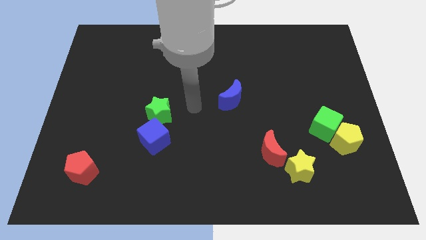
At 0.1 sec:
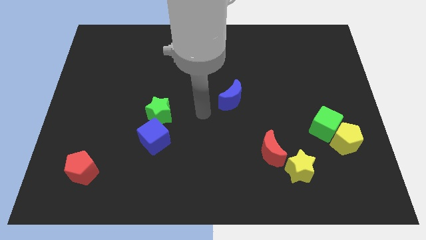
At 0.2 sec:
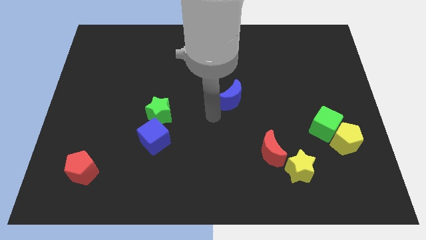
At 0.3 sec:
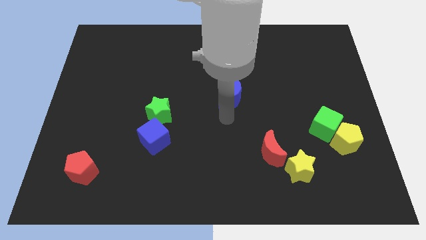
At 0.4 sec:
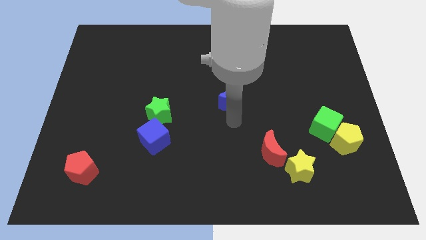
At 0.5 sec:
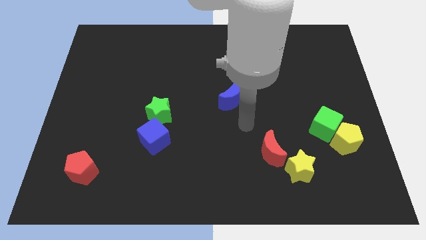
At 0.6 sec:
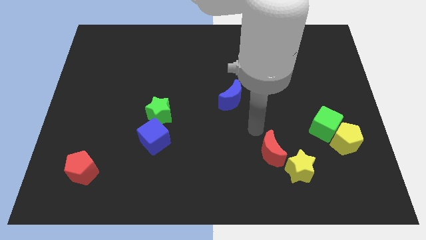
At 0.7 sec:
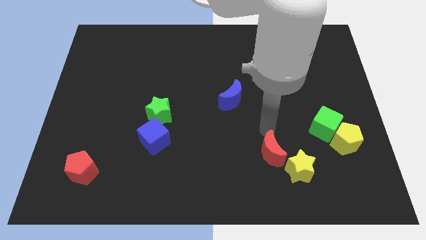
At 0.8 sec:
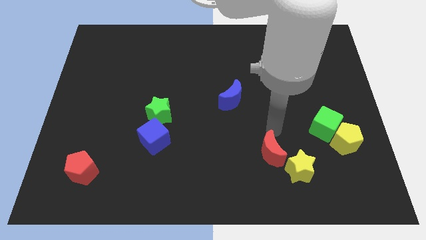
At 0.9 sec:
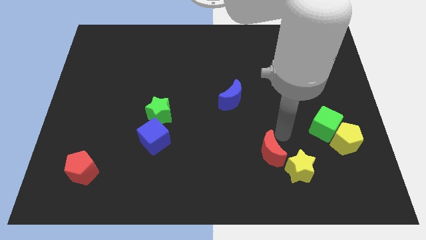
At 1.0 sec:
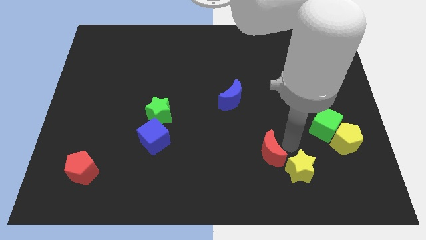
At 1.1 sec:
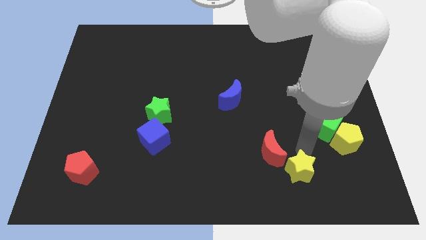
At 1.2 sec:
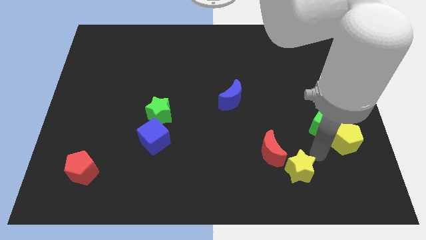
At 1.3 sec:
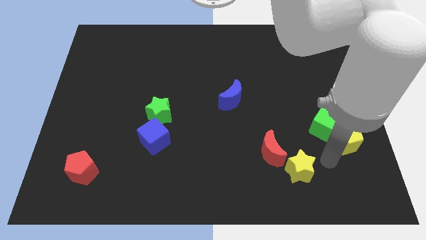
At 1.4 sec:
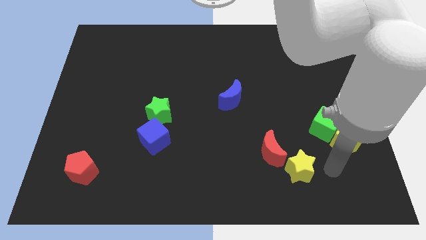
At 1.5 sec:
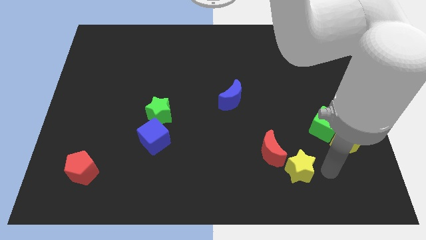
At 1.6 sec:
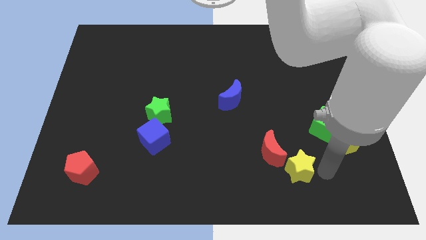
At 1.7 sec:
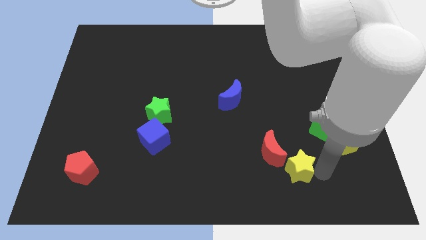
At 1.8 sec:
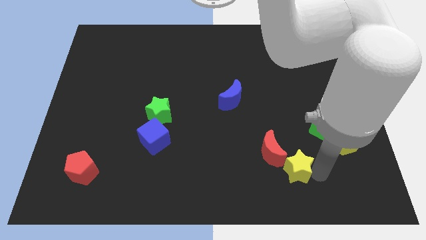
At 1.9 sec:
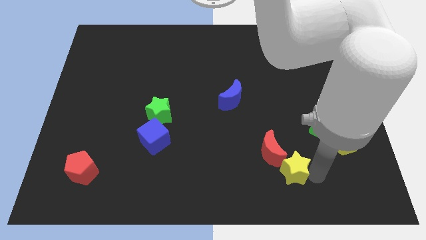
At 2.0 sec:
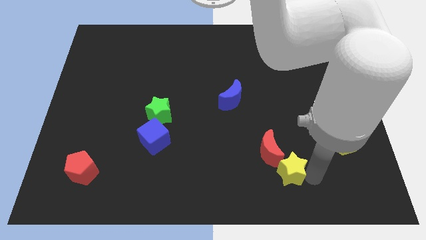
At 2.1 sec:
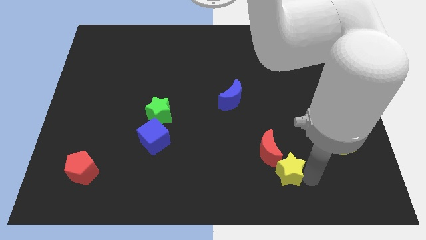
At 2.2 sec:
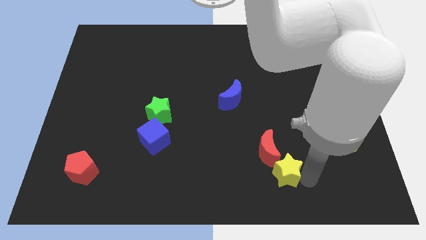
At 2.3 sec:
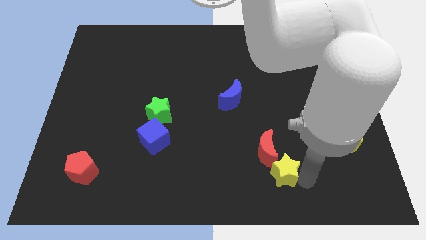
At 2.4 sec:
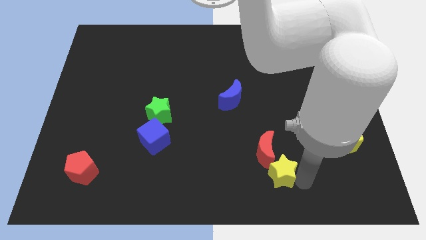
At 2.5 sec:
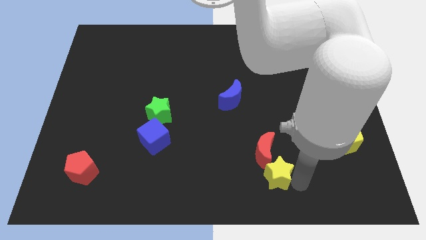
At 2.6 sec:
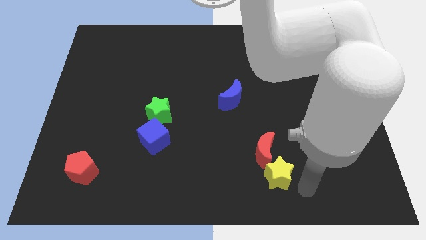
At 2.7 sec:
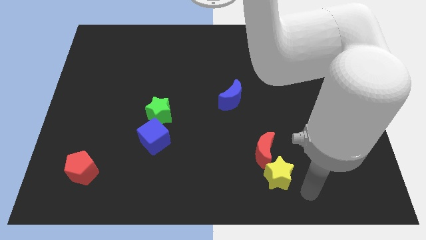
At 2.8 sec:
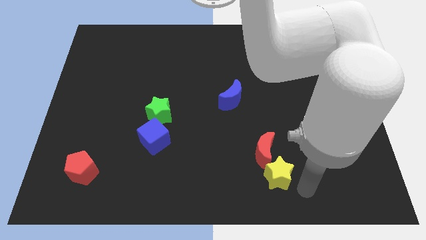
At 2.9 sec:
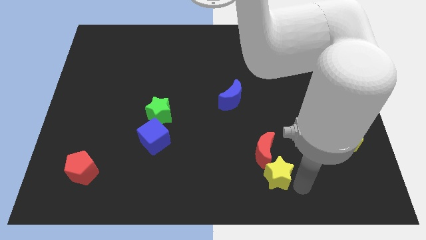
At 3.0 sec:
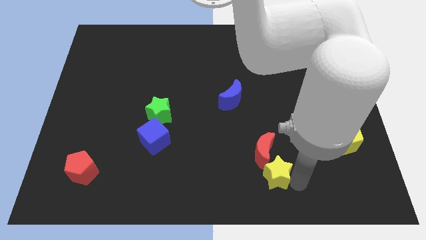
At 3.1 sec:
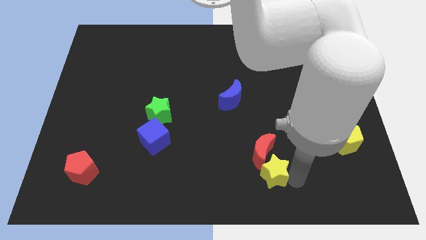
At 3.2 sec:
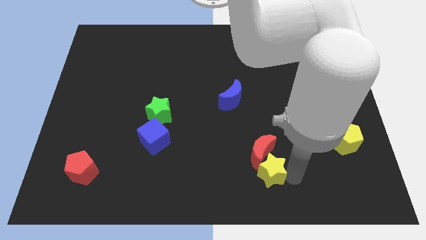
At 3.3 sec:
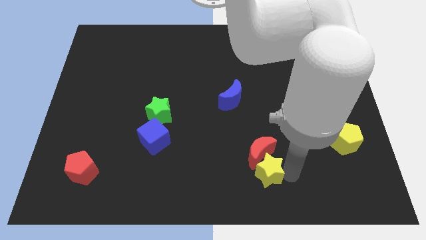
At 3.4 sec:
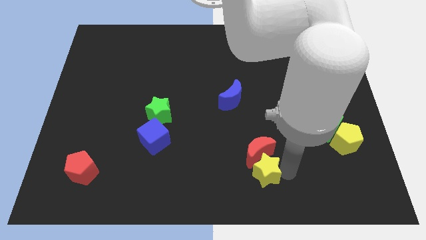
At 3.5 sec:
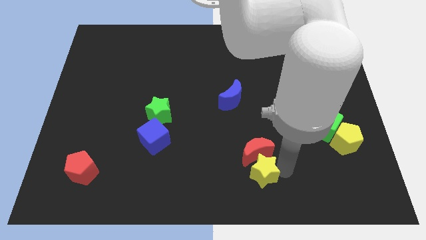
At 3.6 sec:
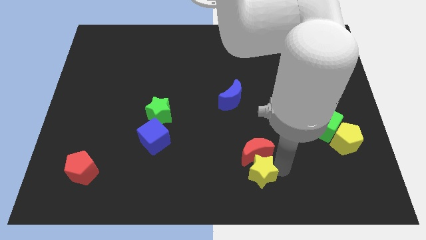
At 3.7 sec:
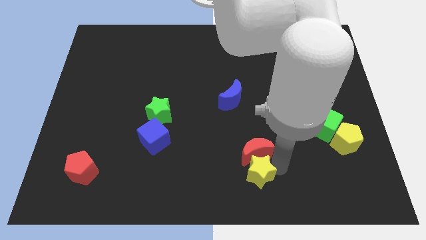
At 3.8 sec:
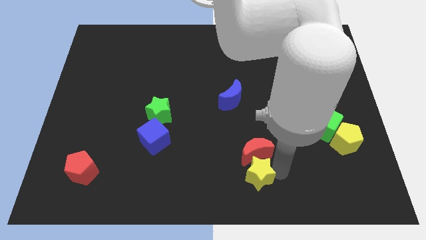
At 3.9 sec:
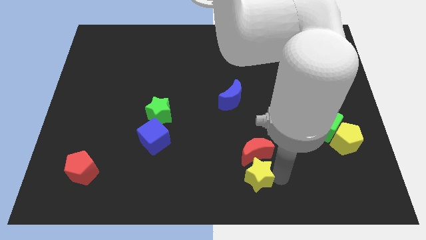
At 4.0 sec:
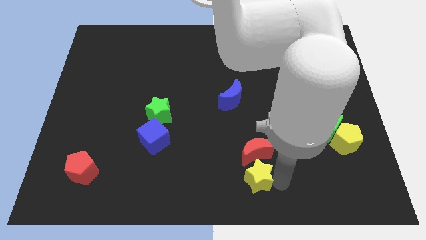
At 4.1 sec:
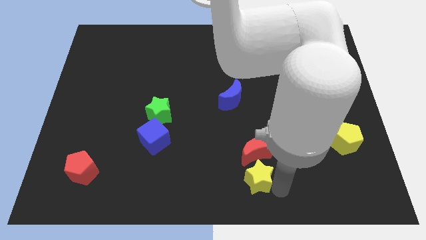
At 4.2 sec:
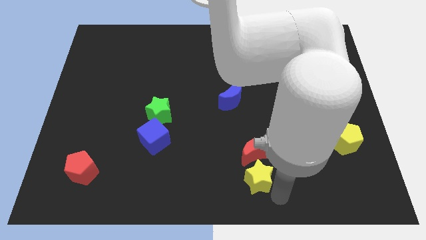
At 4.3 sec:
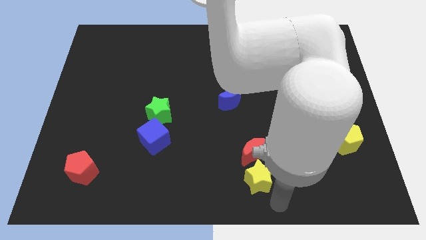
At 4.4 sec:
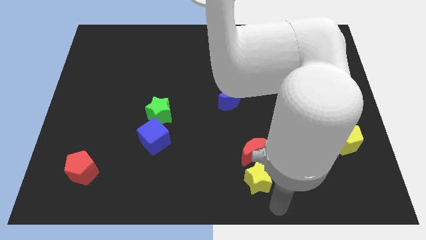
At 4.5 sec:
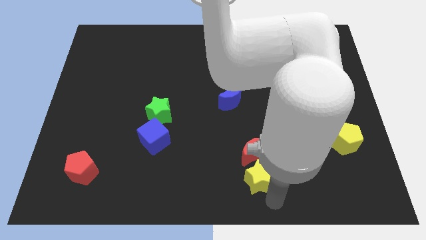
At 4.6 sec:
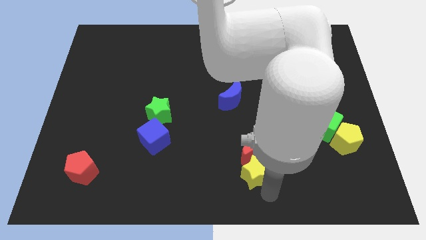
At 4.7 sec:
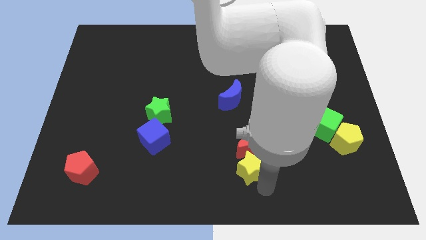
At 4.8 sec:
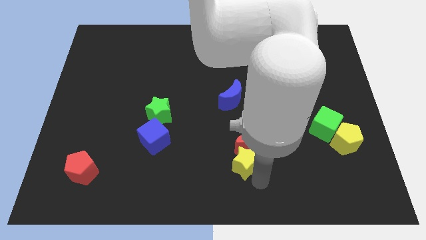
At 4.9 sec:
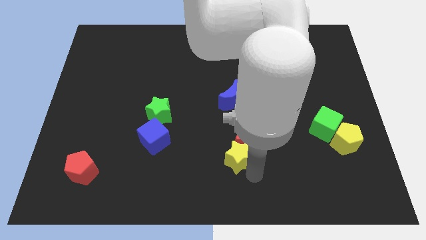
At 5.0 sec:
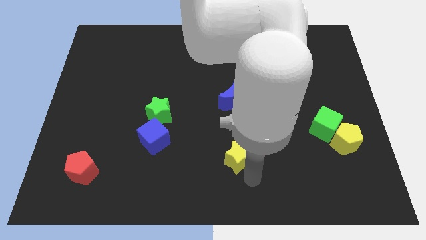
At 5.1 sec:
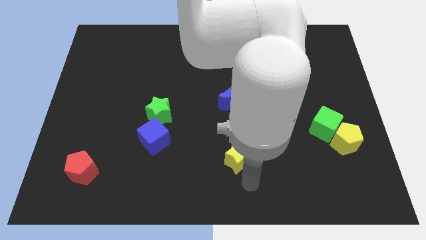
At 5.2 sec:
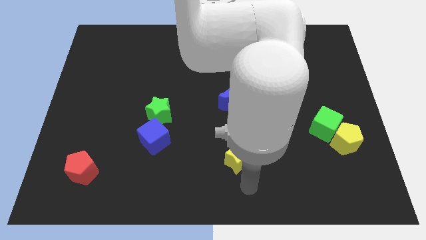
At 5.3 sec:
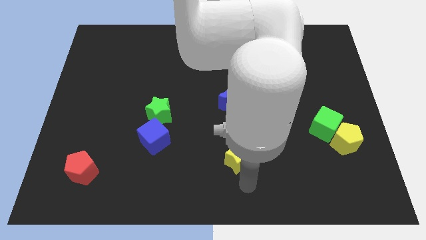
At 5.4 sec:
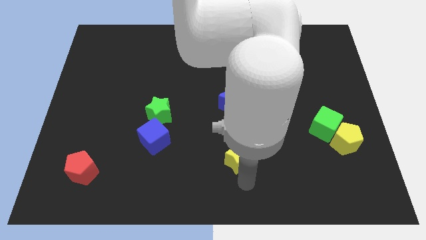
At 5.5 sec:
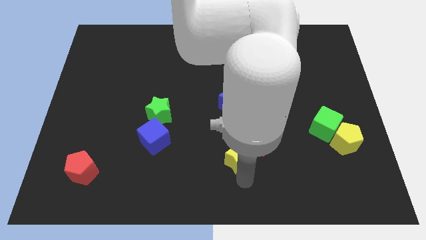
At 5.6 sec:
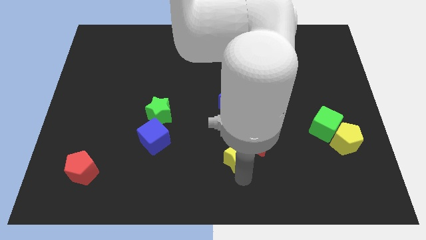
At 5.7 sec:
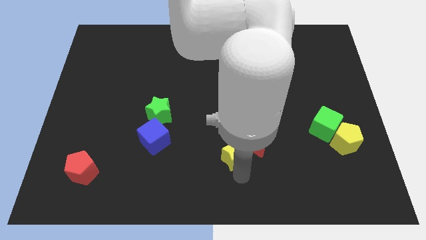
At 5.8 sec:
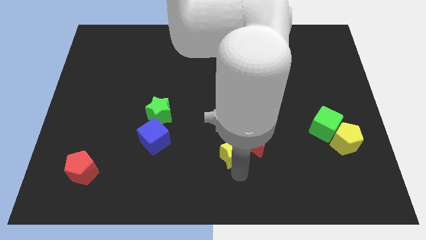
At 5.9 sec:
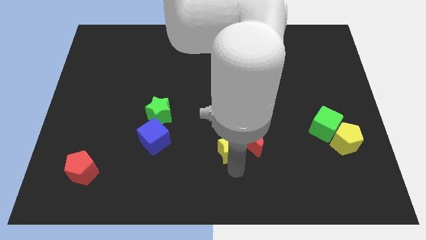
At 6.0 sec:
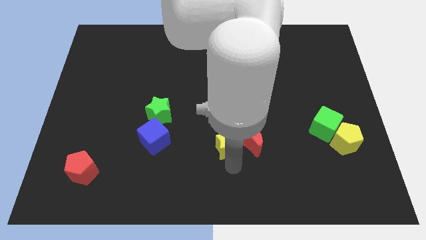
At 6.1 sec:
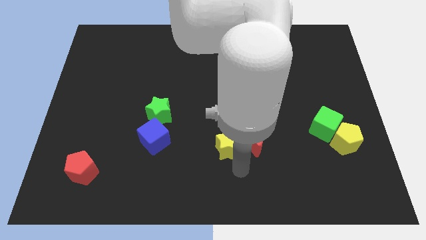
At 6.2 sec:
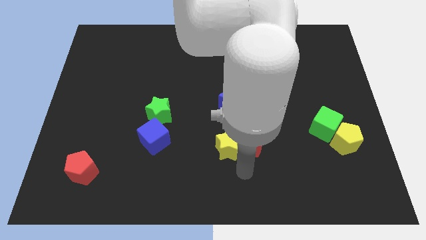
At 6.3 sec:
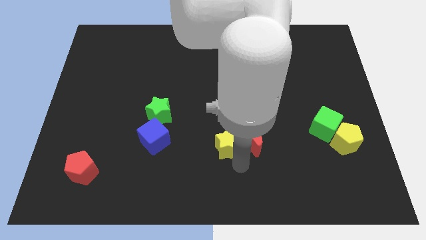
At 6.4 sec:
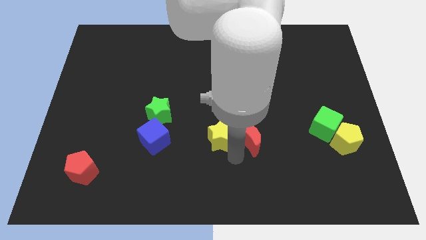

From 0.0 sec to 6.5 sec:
put the yellow star to the middle

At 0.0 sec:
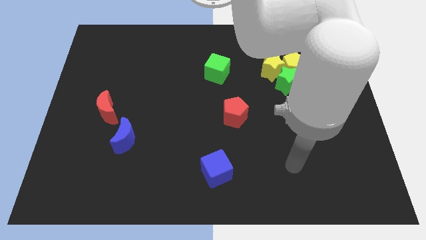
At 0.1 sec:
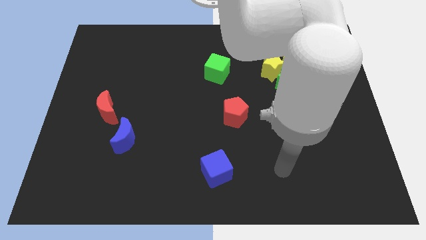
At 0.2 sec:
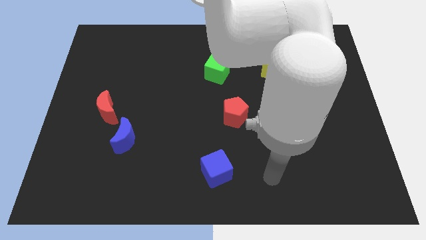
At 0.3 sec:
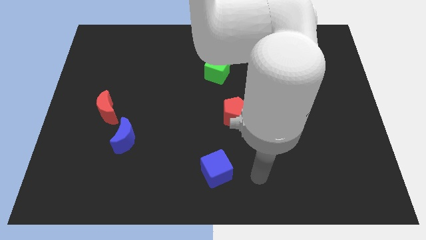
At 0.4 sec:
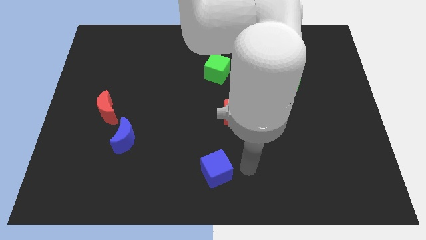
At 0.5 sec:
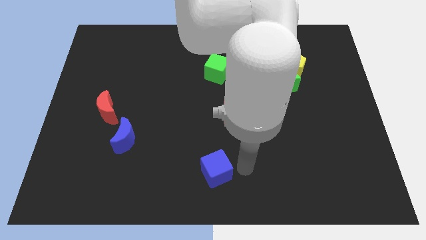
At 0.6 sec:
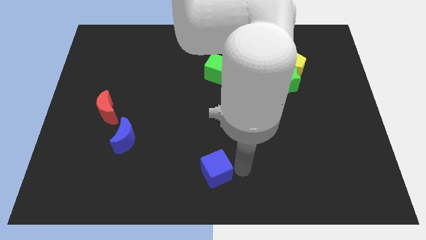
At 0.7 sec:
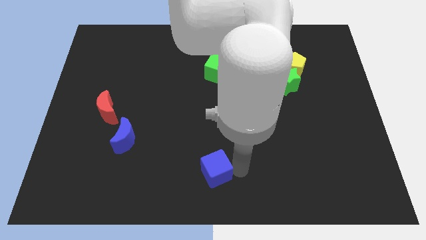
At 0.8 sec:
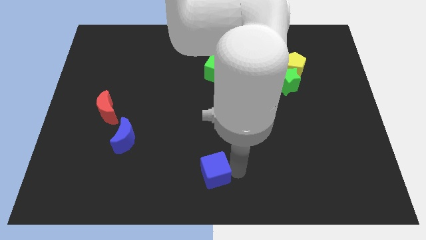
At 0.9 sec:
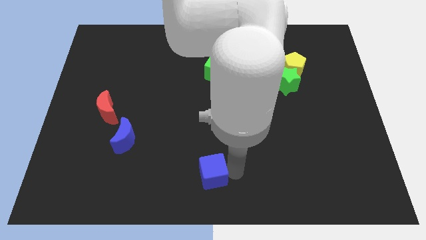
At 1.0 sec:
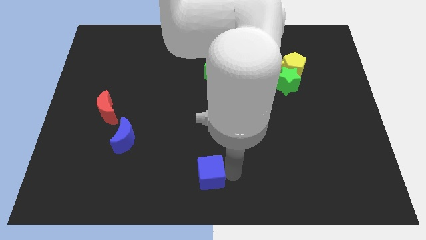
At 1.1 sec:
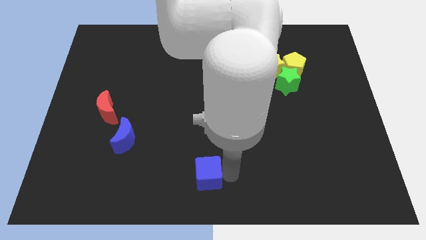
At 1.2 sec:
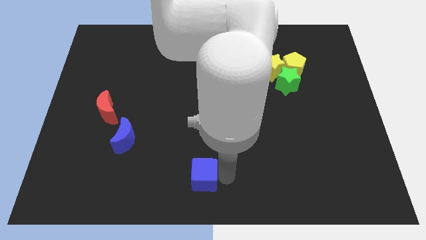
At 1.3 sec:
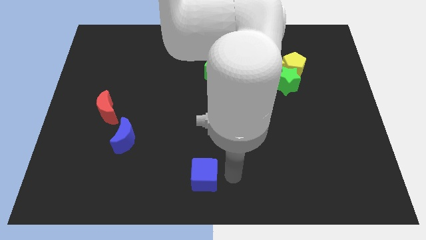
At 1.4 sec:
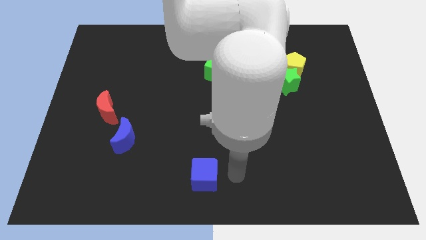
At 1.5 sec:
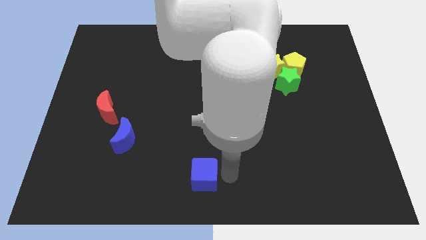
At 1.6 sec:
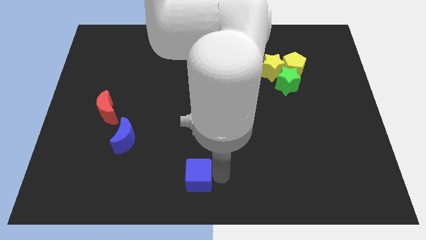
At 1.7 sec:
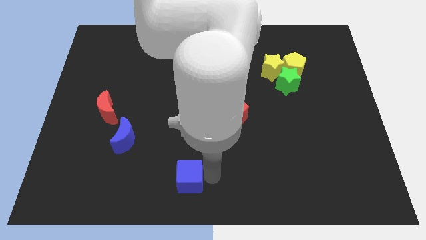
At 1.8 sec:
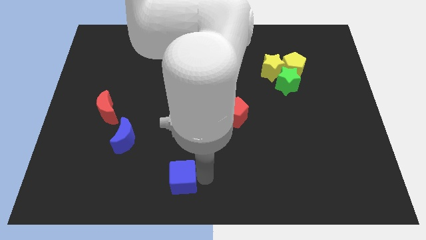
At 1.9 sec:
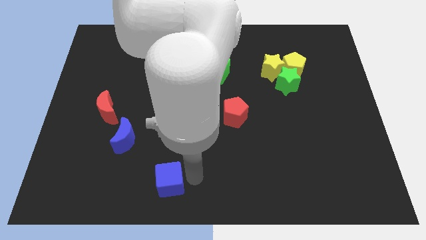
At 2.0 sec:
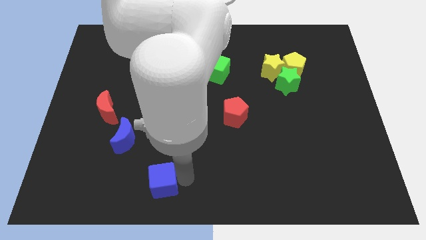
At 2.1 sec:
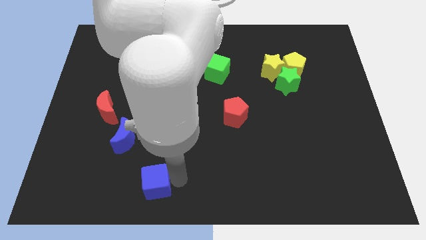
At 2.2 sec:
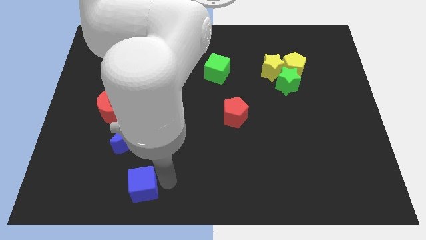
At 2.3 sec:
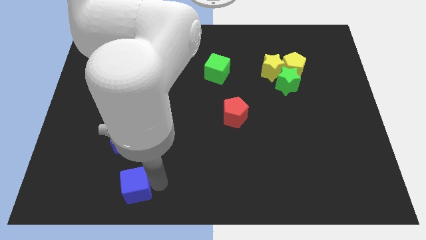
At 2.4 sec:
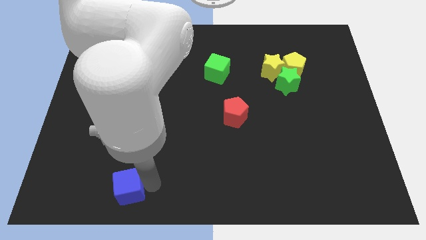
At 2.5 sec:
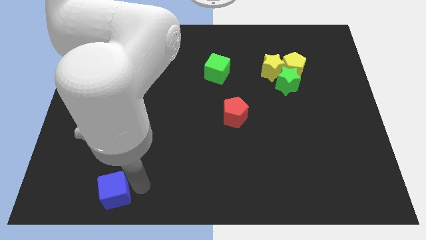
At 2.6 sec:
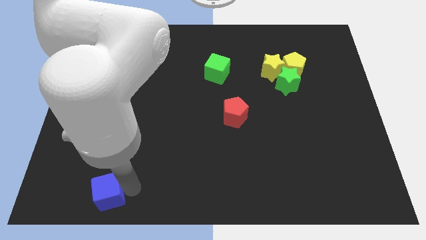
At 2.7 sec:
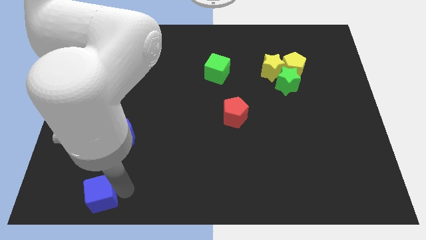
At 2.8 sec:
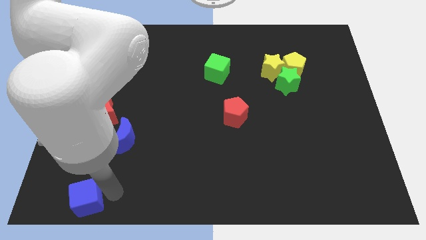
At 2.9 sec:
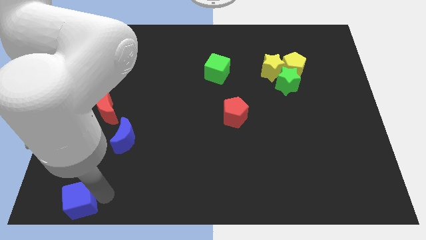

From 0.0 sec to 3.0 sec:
slide the blue cube to the lower left corner
